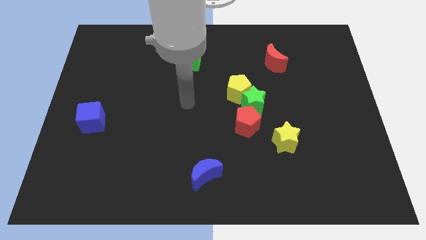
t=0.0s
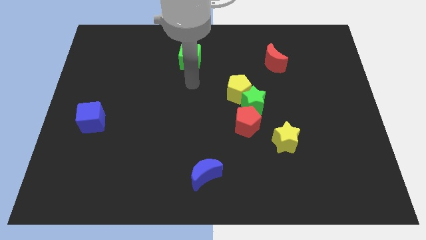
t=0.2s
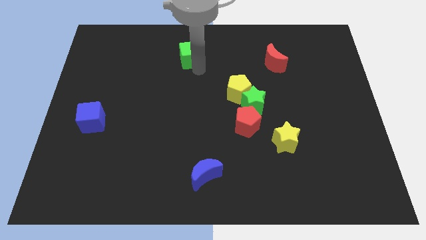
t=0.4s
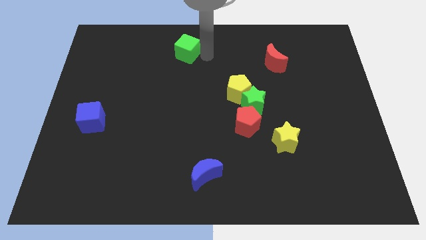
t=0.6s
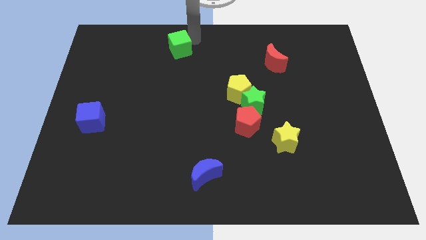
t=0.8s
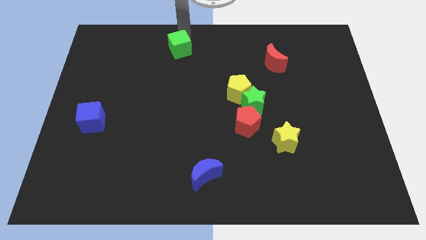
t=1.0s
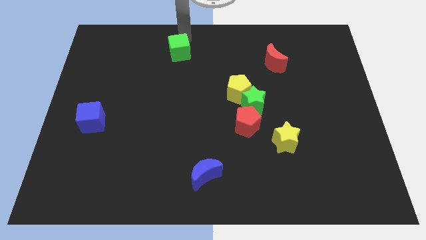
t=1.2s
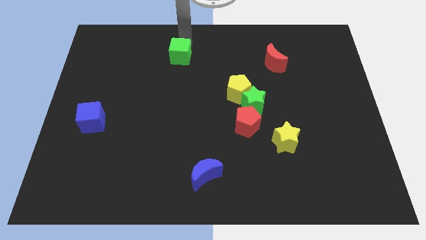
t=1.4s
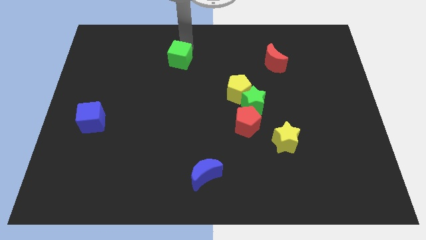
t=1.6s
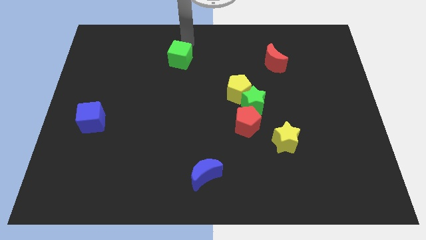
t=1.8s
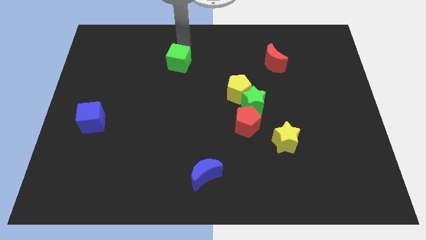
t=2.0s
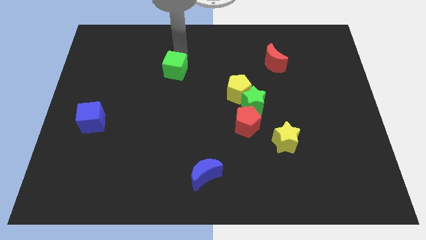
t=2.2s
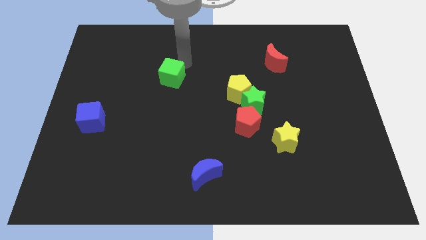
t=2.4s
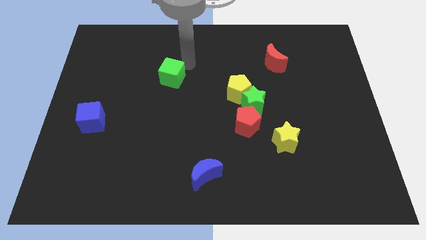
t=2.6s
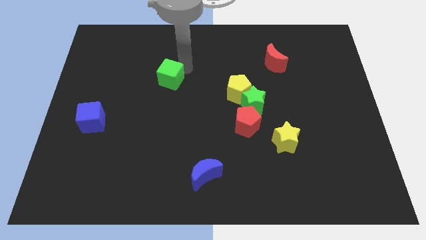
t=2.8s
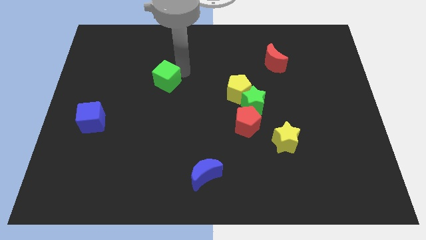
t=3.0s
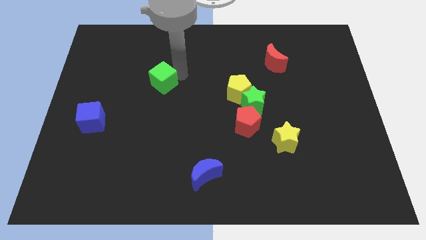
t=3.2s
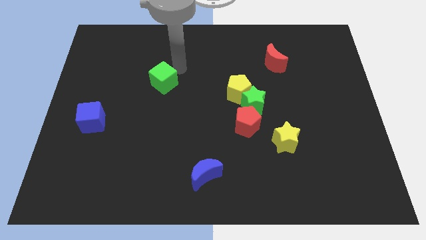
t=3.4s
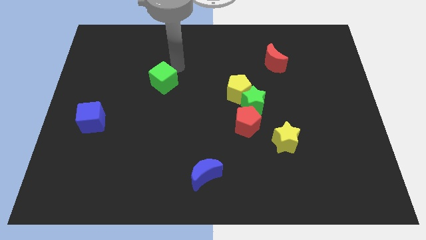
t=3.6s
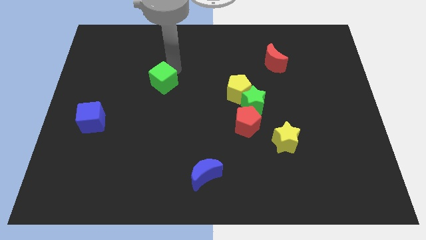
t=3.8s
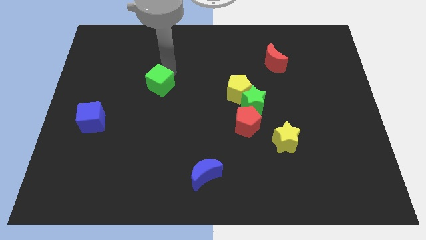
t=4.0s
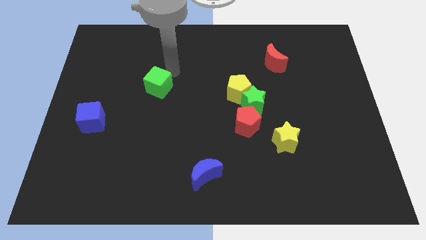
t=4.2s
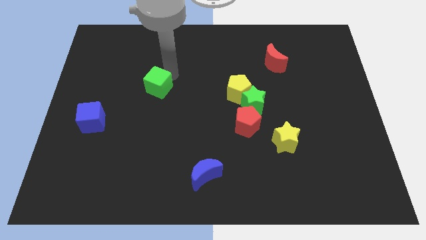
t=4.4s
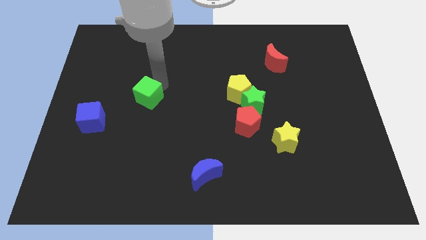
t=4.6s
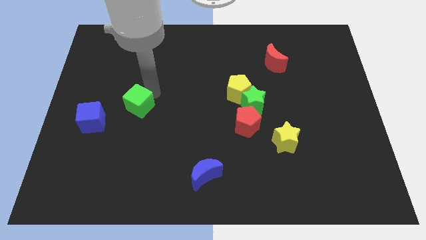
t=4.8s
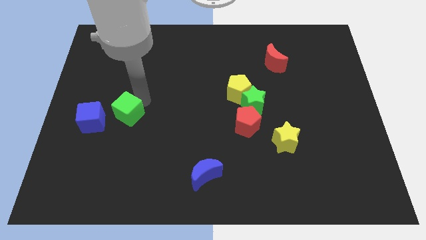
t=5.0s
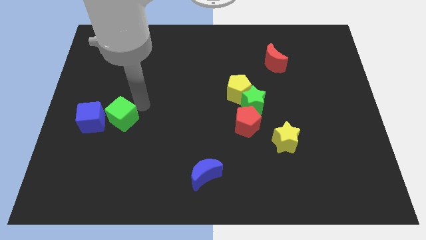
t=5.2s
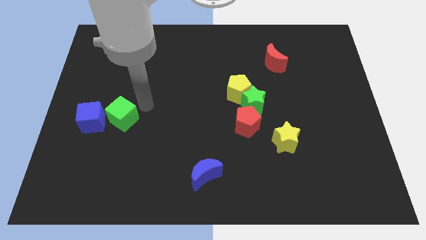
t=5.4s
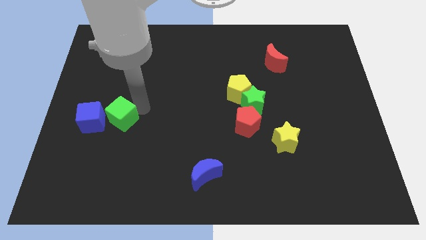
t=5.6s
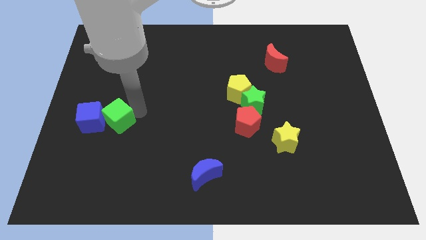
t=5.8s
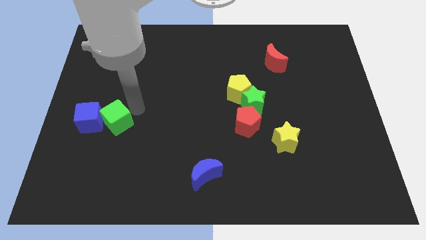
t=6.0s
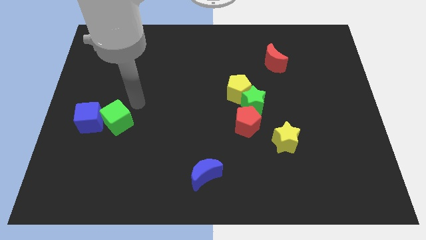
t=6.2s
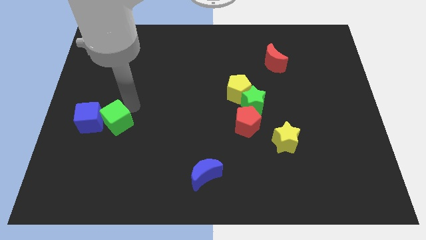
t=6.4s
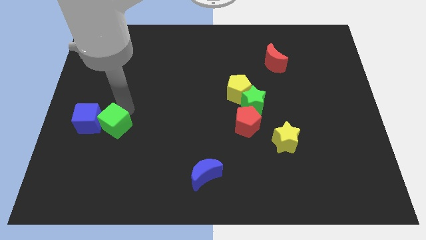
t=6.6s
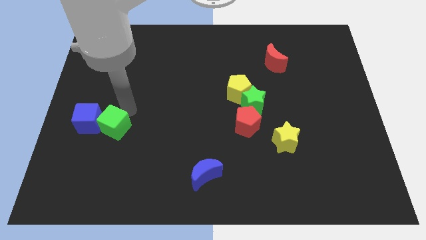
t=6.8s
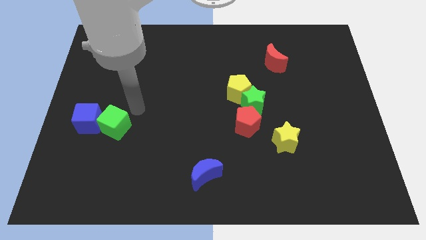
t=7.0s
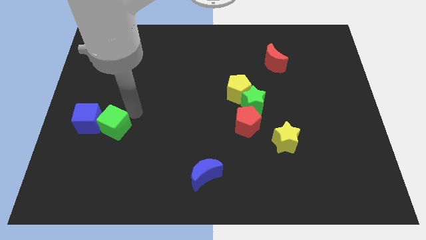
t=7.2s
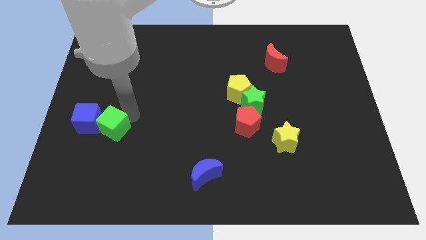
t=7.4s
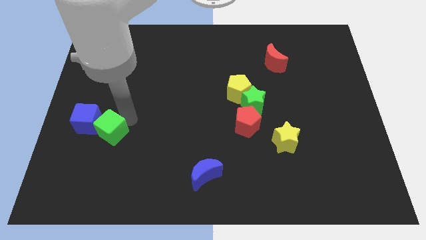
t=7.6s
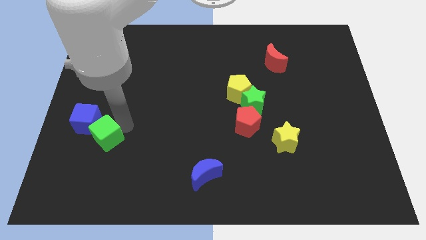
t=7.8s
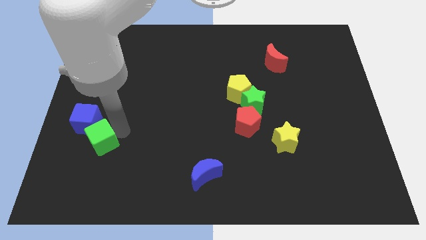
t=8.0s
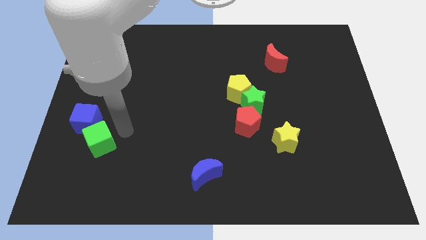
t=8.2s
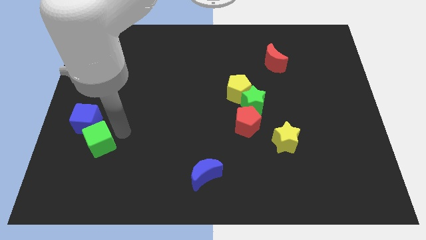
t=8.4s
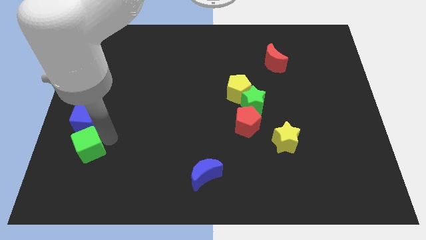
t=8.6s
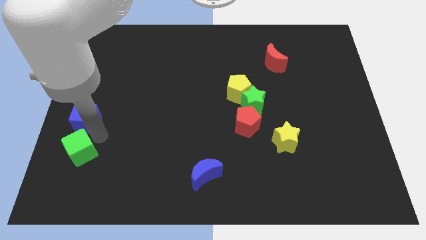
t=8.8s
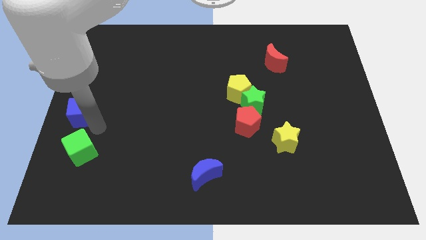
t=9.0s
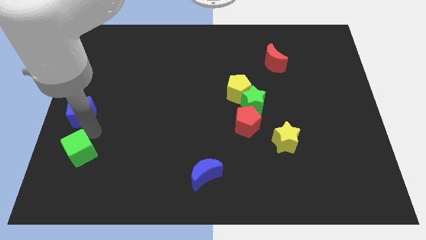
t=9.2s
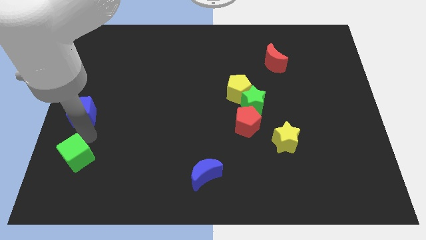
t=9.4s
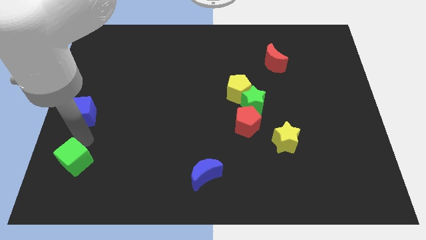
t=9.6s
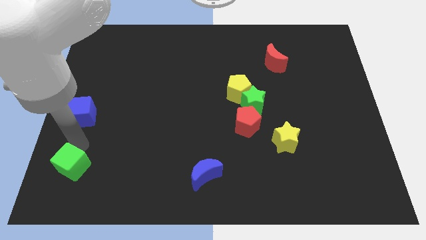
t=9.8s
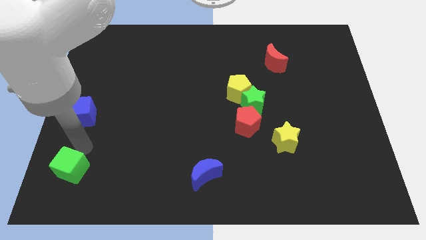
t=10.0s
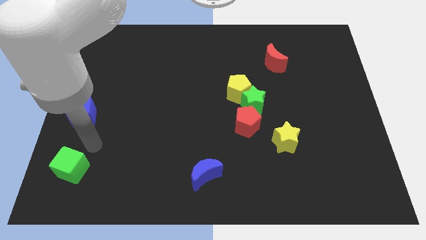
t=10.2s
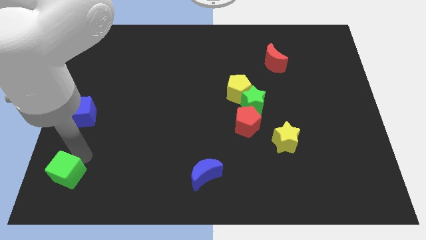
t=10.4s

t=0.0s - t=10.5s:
push the green cube to the bottom left
